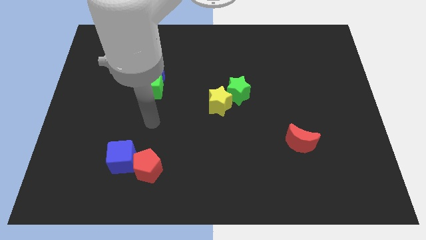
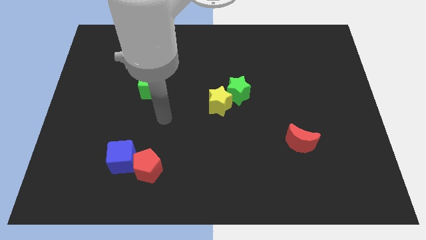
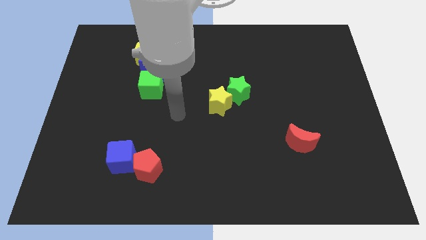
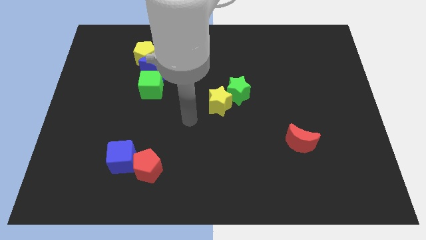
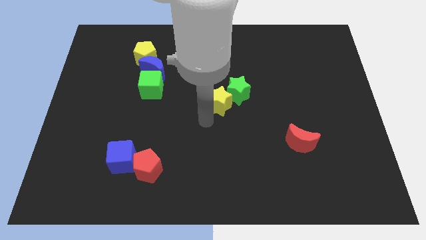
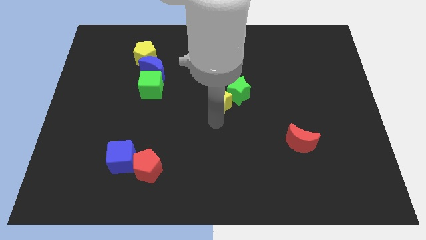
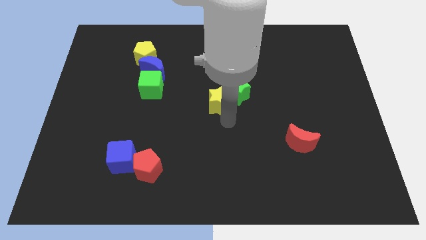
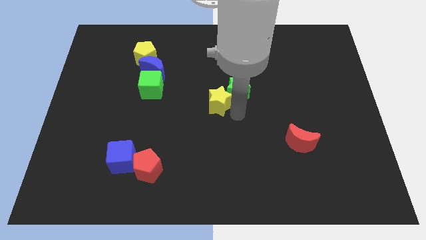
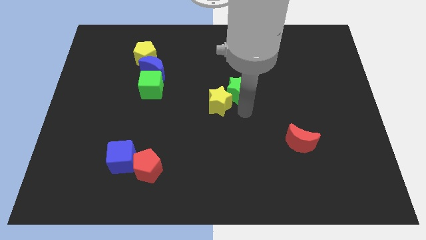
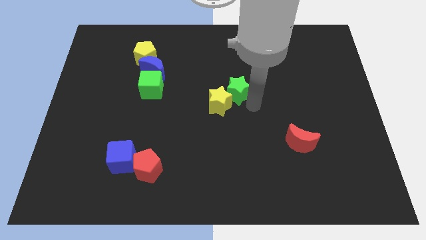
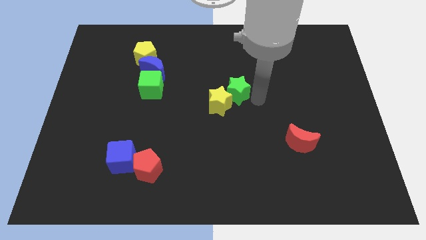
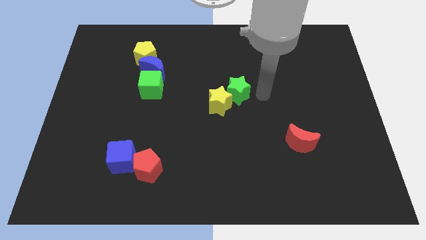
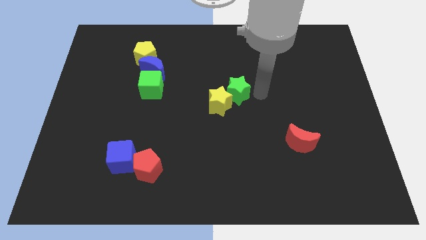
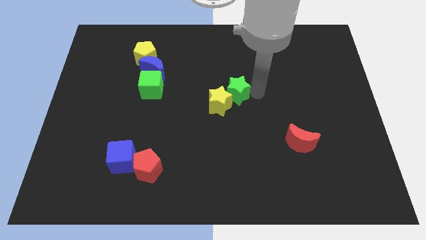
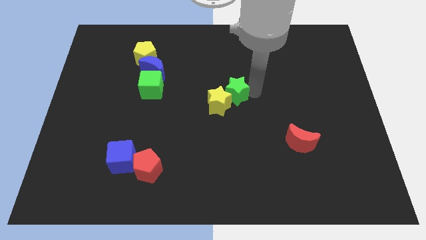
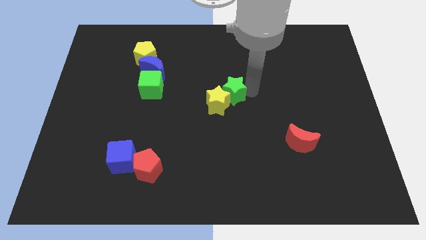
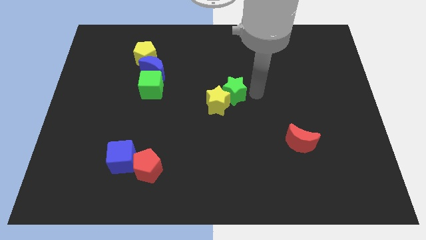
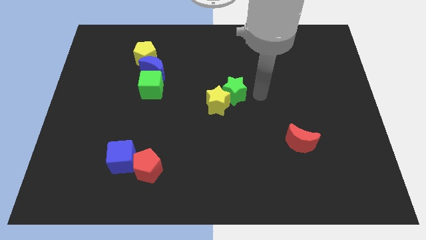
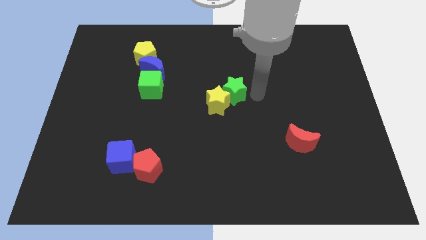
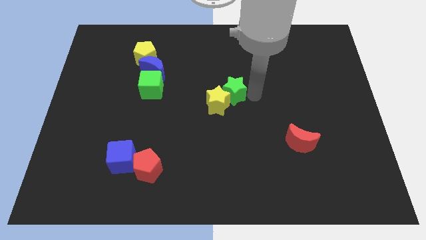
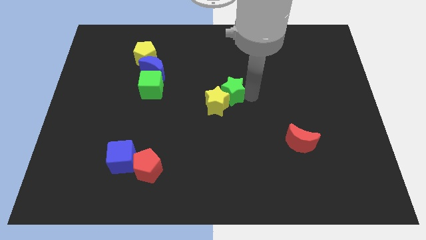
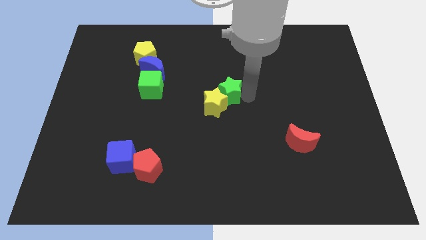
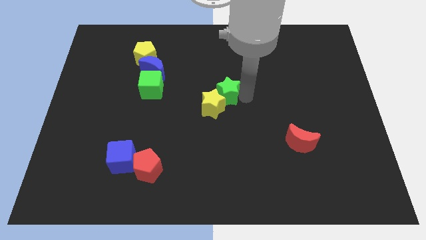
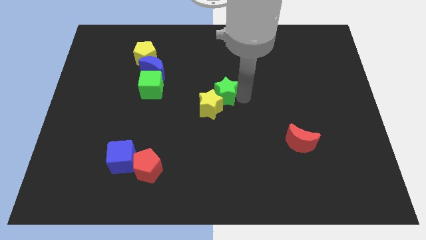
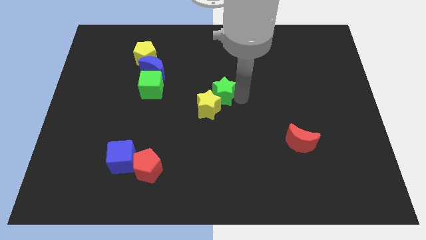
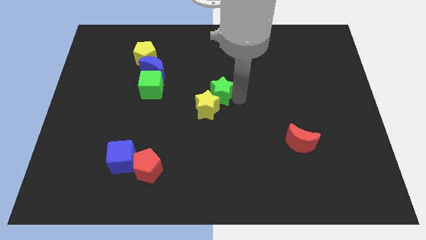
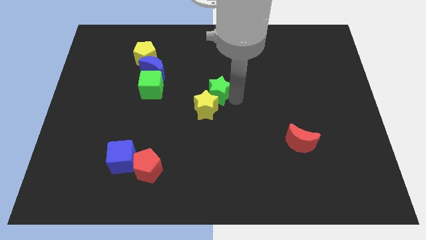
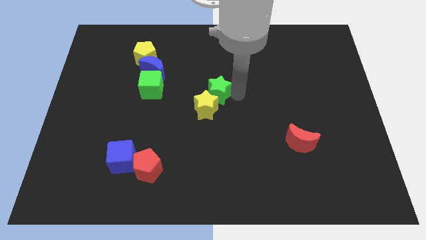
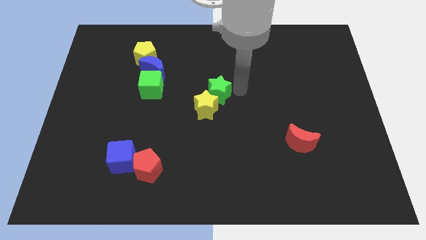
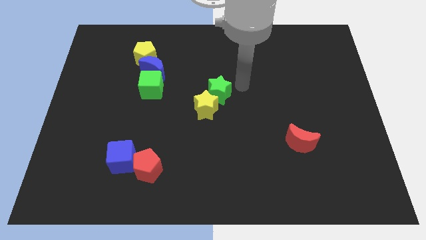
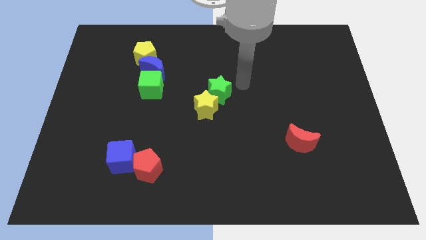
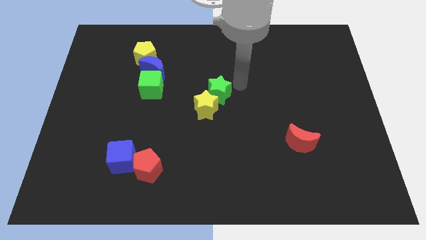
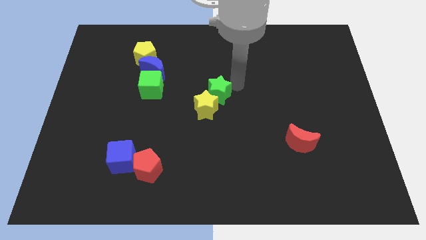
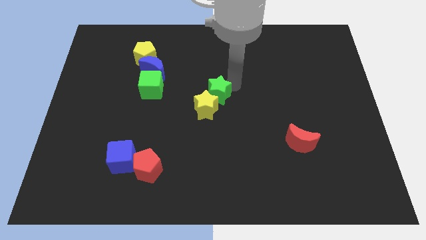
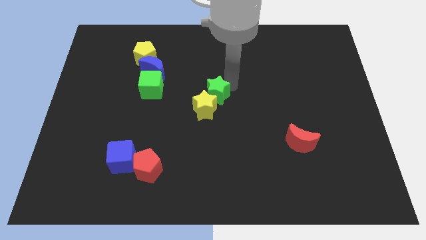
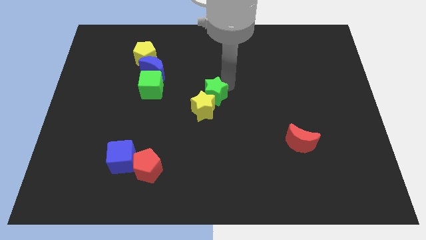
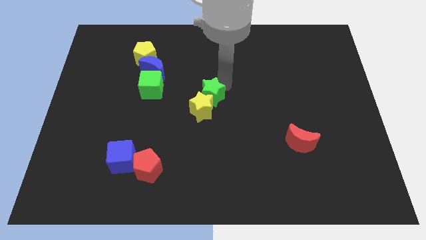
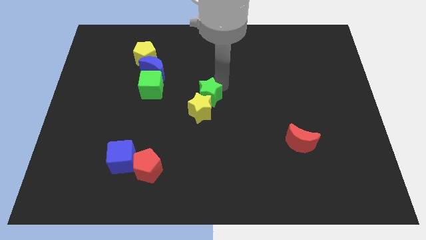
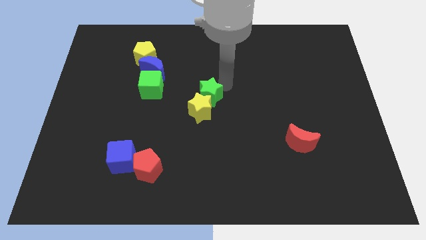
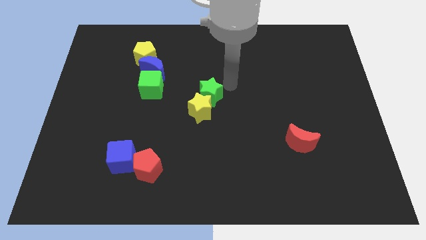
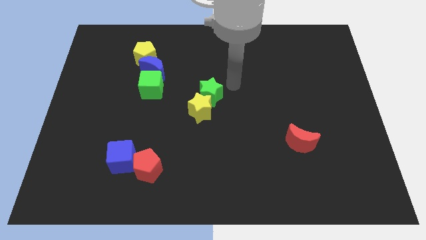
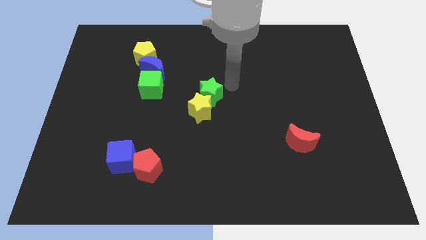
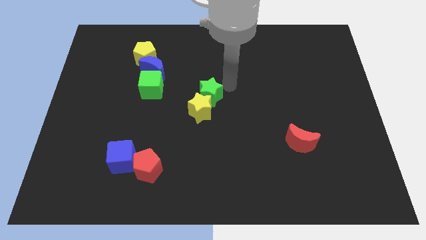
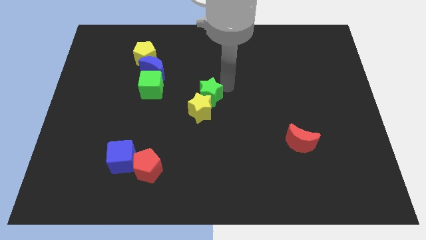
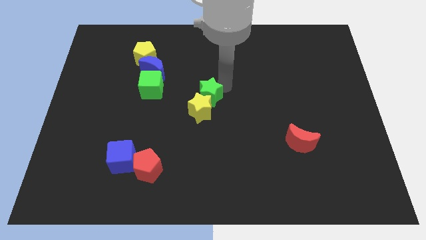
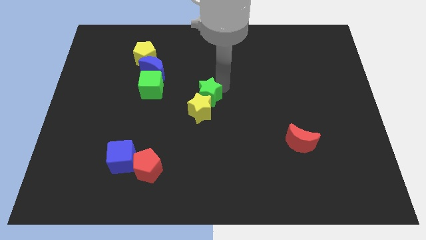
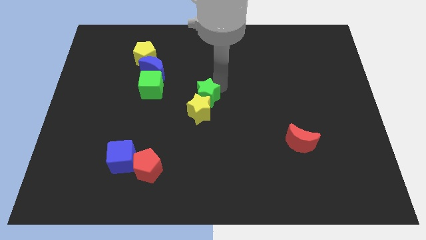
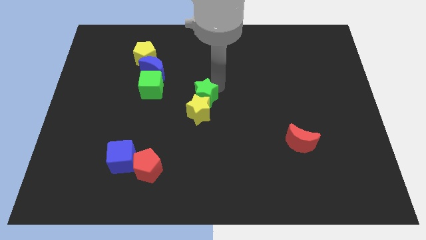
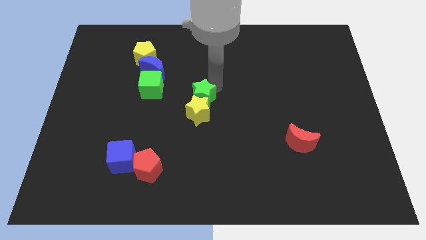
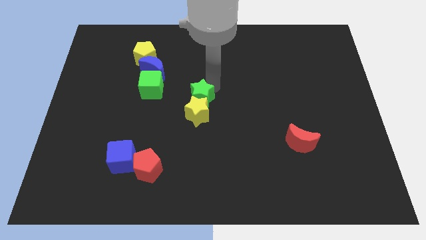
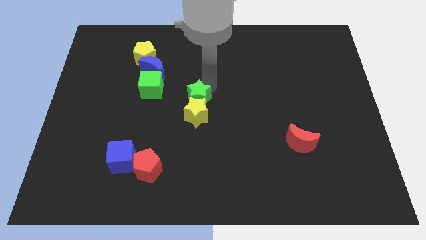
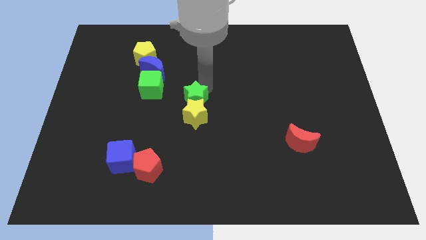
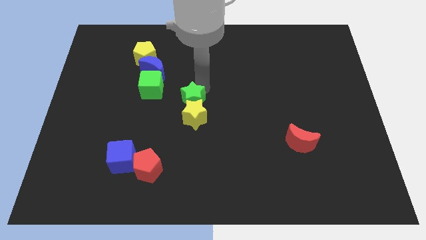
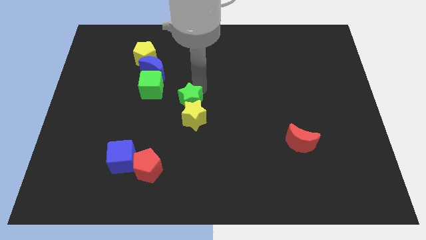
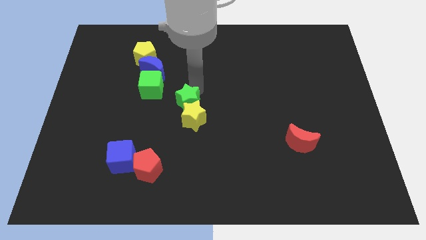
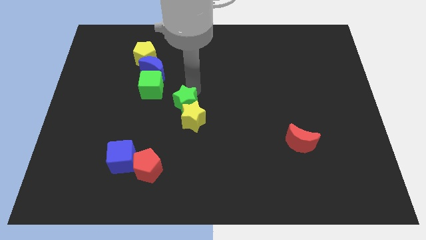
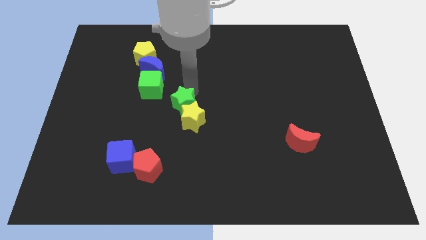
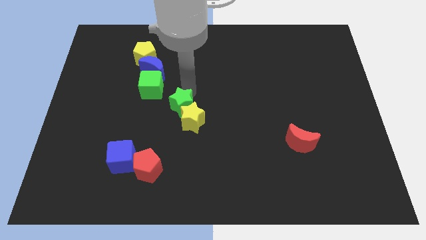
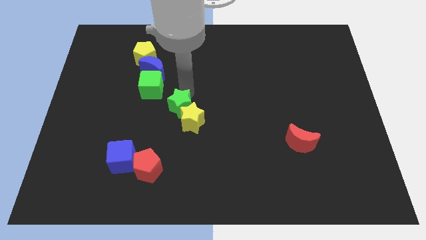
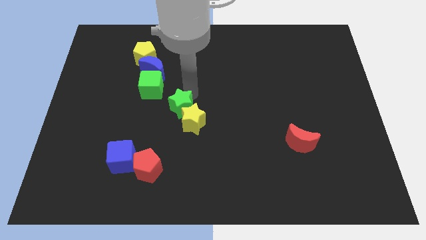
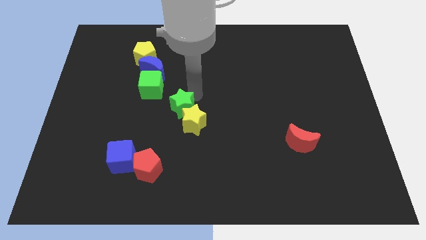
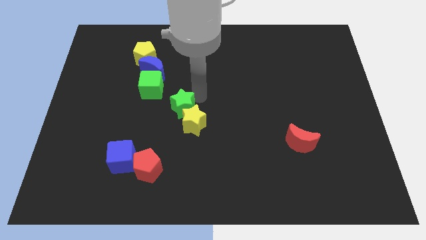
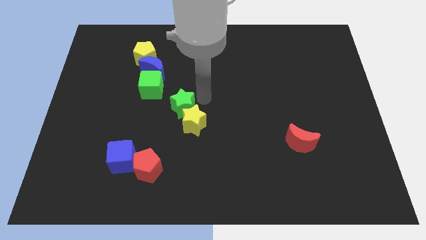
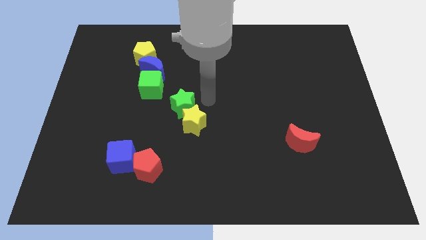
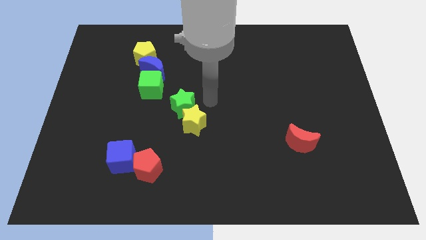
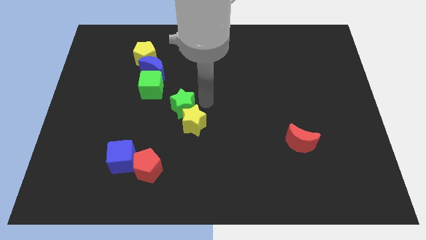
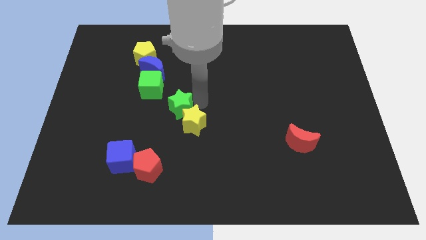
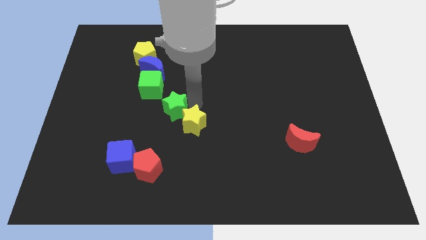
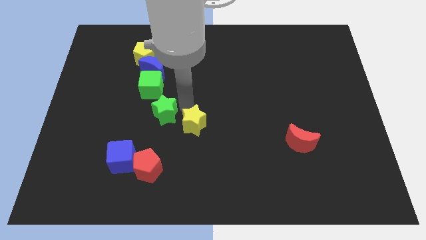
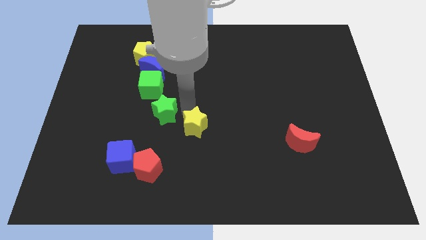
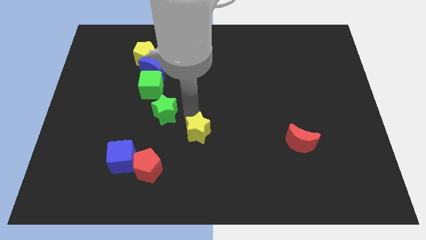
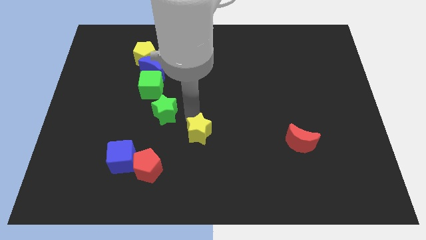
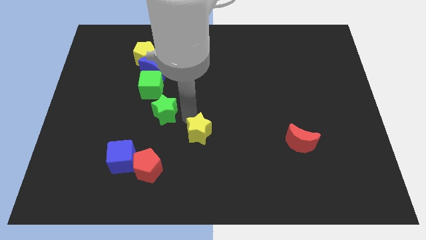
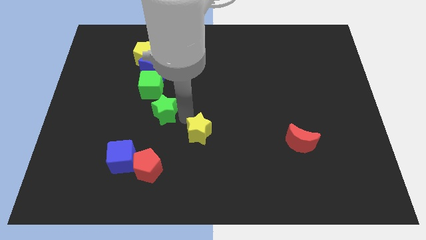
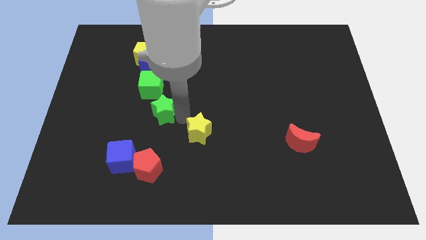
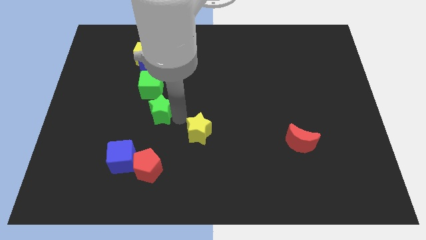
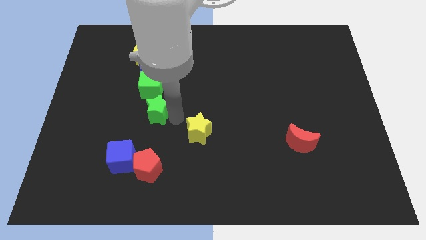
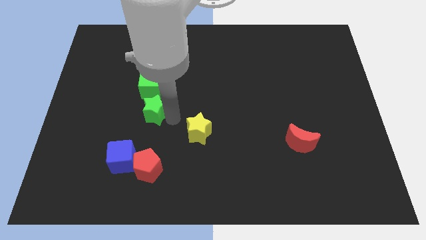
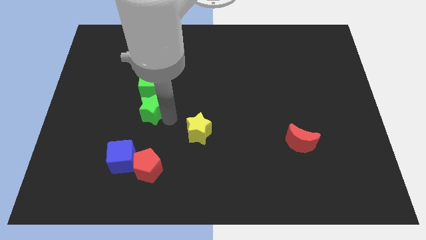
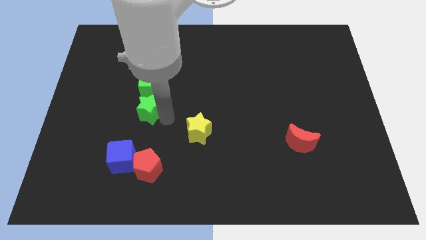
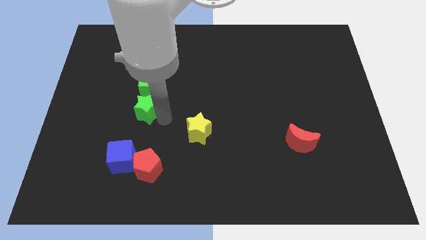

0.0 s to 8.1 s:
move the green star left
